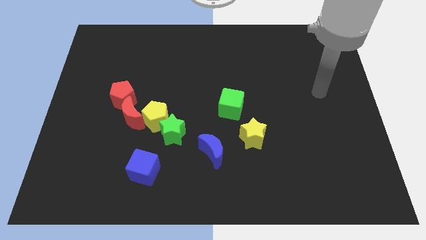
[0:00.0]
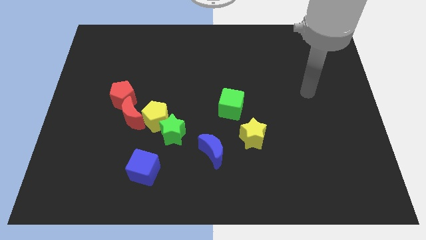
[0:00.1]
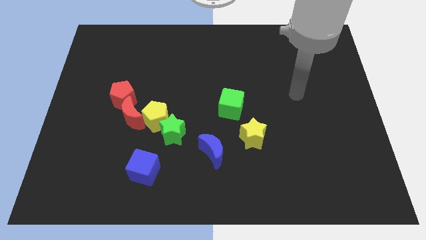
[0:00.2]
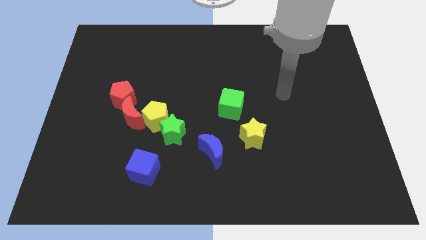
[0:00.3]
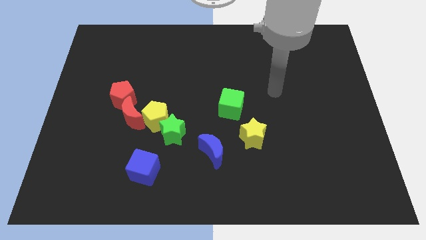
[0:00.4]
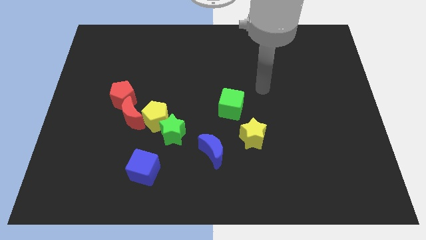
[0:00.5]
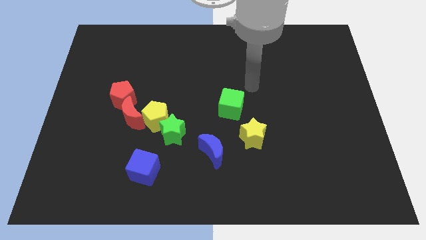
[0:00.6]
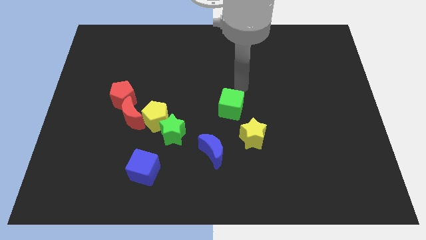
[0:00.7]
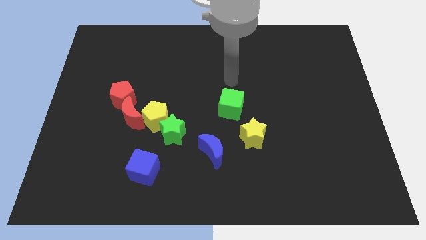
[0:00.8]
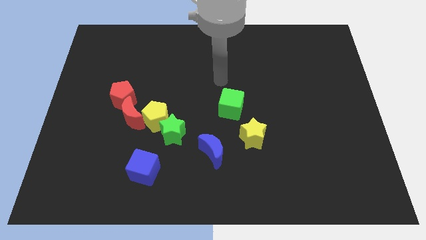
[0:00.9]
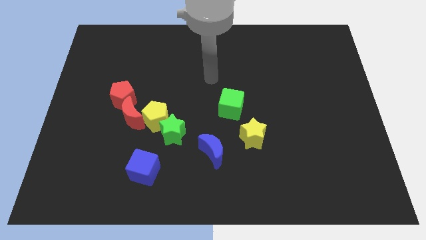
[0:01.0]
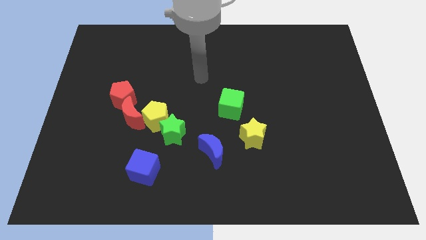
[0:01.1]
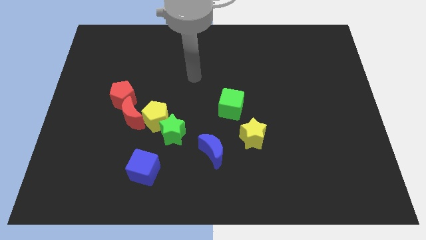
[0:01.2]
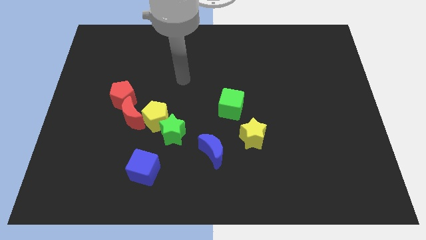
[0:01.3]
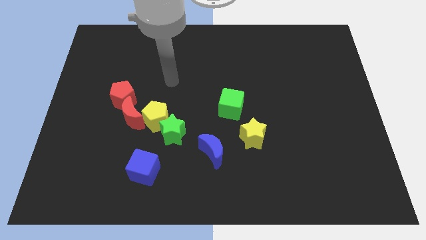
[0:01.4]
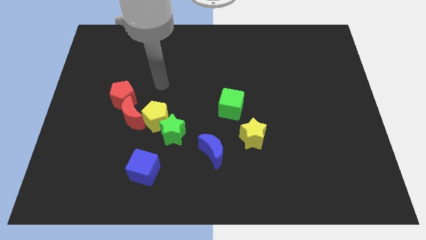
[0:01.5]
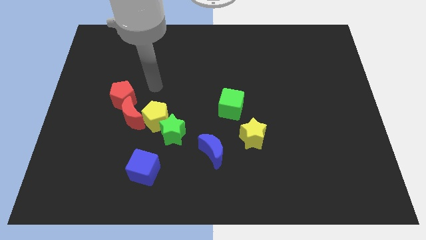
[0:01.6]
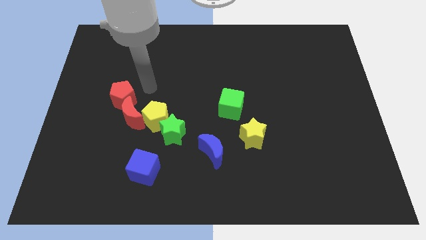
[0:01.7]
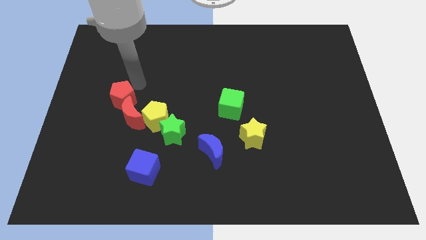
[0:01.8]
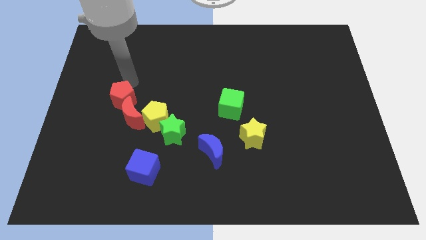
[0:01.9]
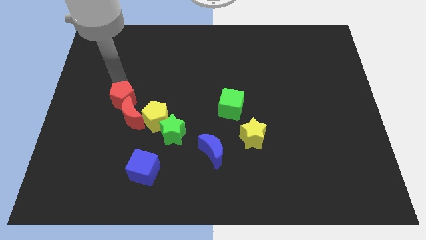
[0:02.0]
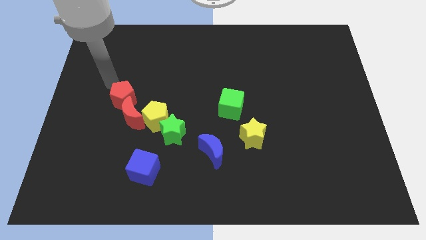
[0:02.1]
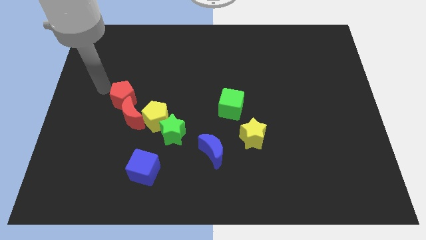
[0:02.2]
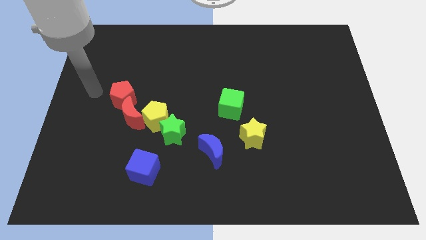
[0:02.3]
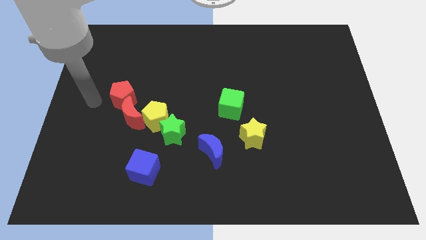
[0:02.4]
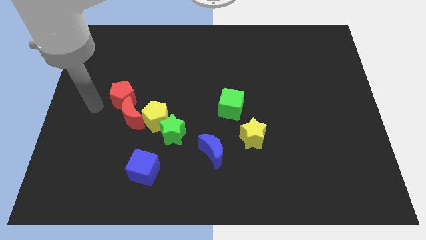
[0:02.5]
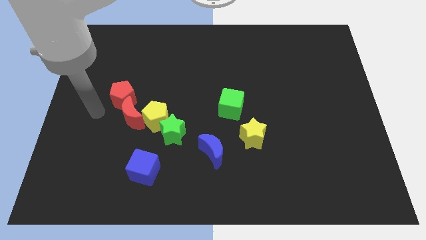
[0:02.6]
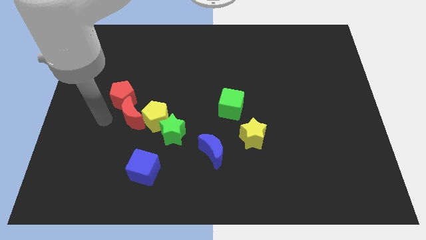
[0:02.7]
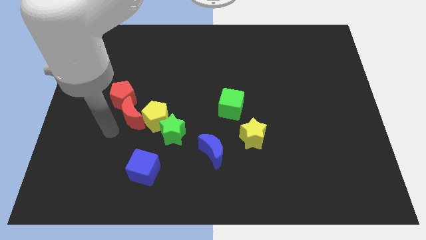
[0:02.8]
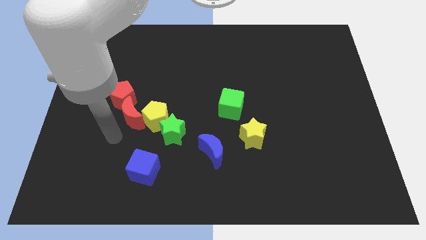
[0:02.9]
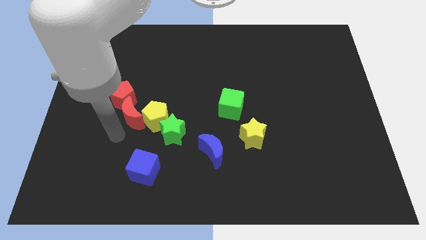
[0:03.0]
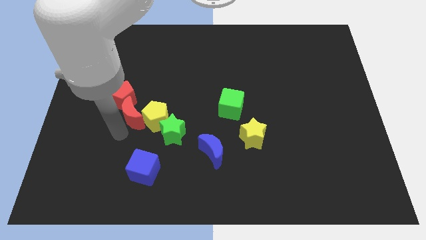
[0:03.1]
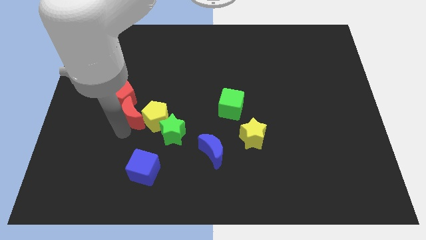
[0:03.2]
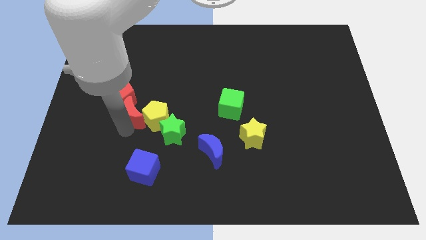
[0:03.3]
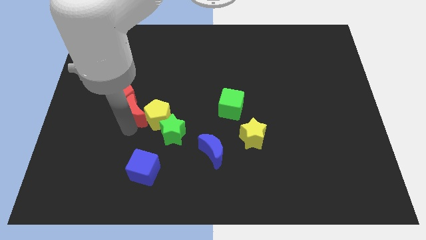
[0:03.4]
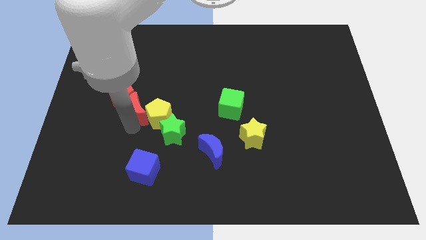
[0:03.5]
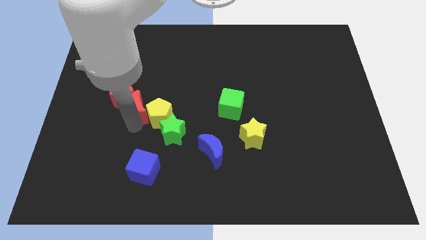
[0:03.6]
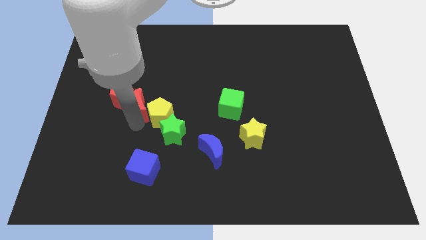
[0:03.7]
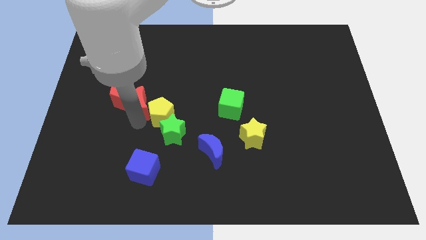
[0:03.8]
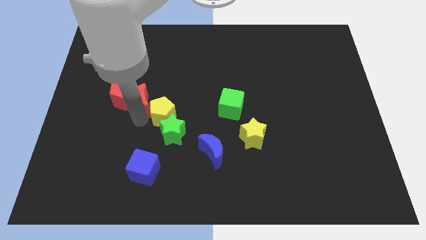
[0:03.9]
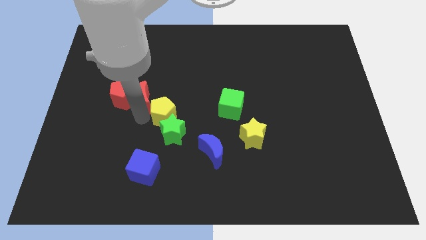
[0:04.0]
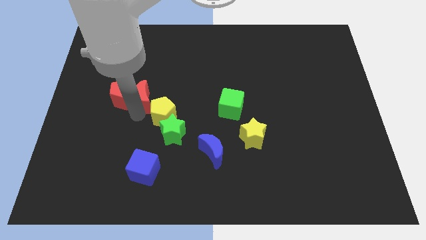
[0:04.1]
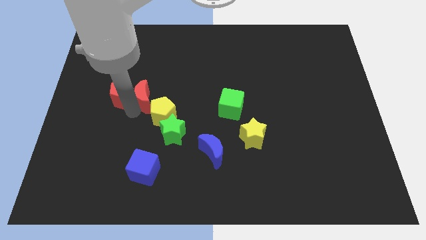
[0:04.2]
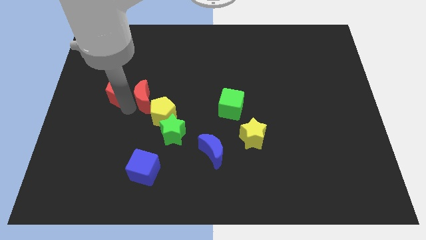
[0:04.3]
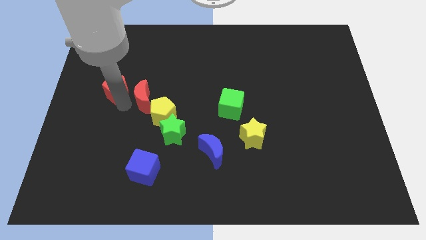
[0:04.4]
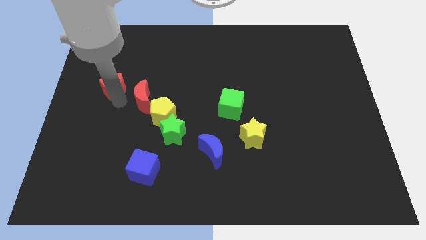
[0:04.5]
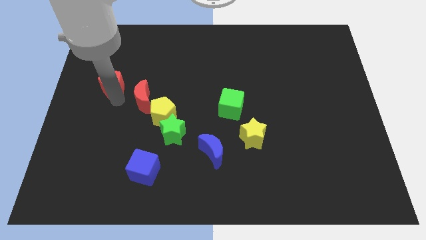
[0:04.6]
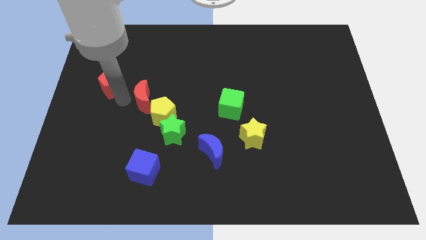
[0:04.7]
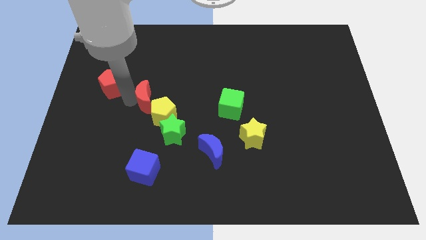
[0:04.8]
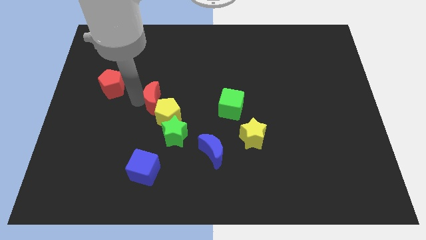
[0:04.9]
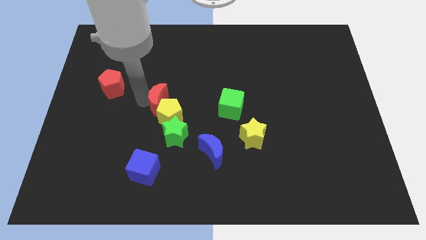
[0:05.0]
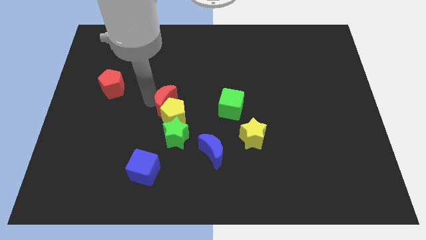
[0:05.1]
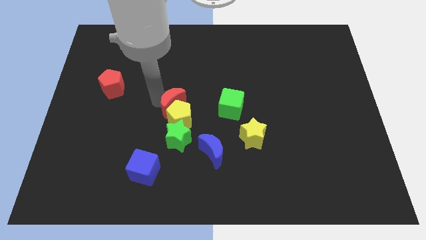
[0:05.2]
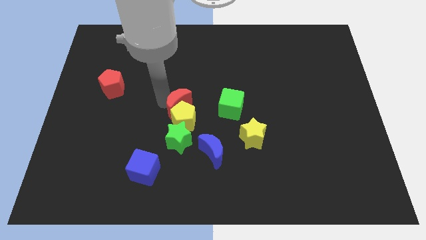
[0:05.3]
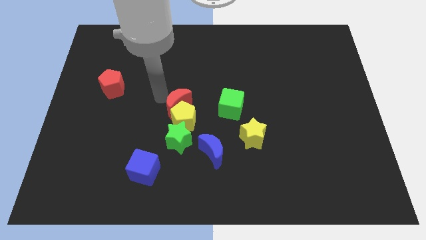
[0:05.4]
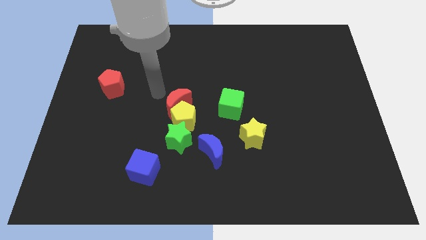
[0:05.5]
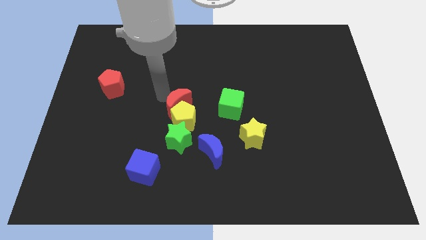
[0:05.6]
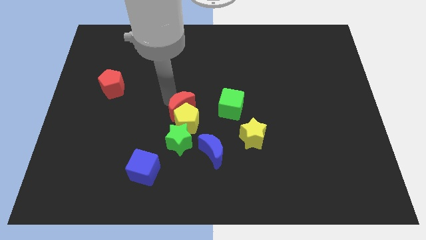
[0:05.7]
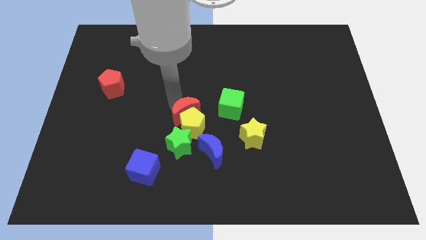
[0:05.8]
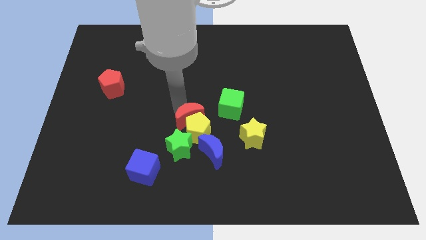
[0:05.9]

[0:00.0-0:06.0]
put the red moon to the top right of the green star

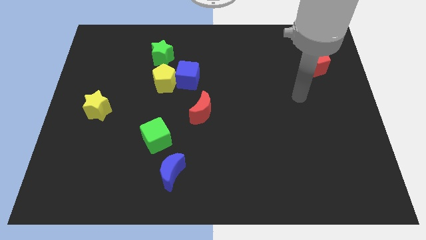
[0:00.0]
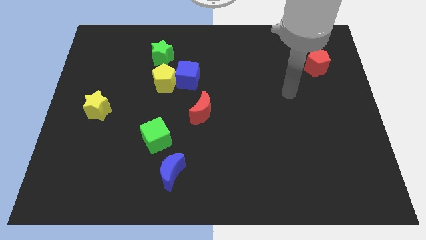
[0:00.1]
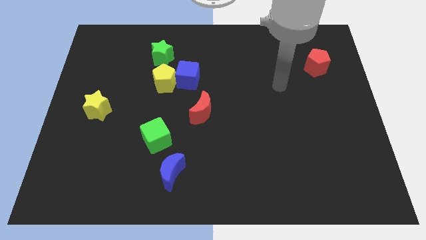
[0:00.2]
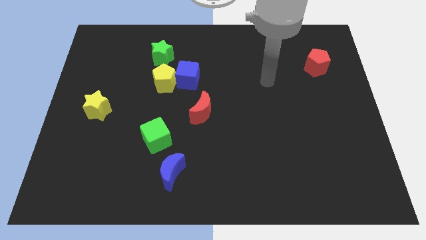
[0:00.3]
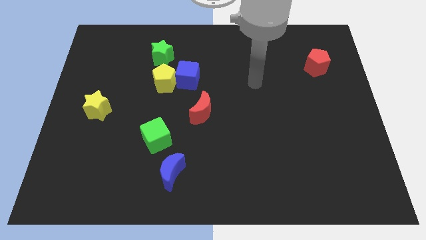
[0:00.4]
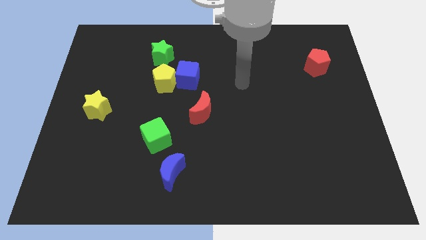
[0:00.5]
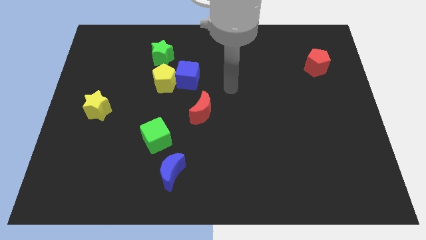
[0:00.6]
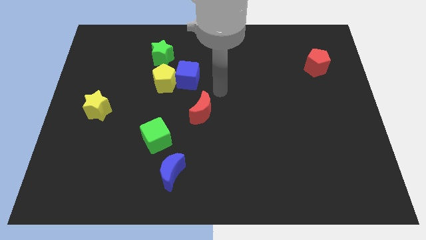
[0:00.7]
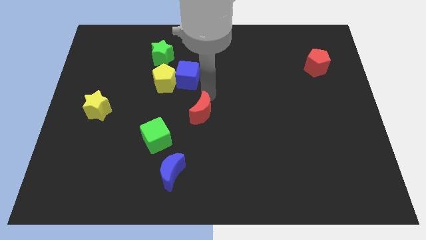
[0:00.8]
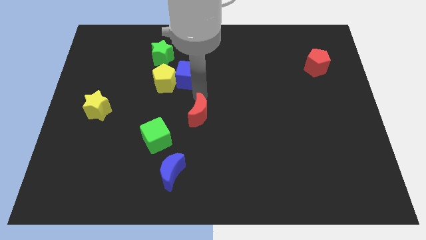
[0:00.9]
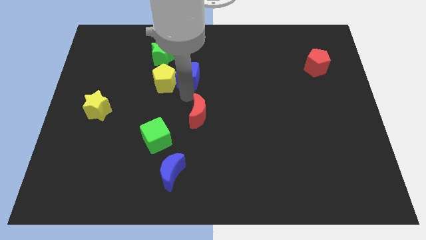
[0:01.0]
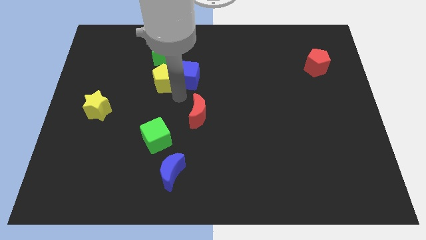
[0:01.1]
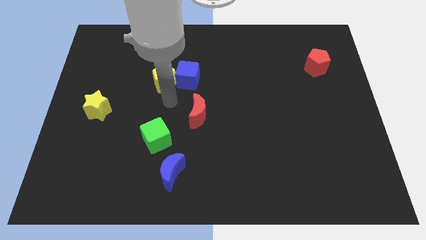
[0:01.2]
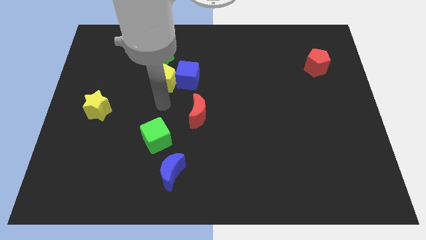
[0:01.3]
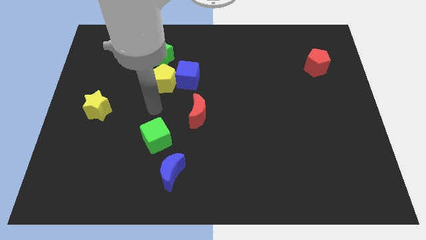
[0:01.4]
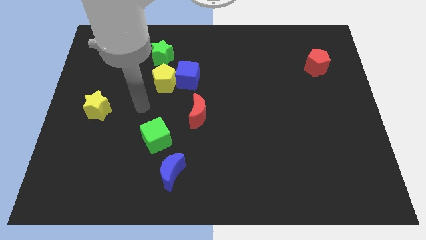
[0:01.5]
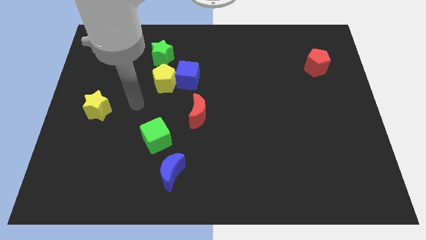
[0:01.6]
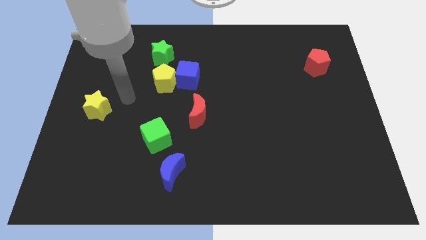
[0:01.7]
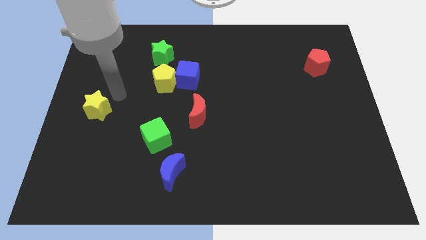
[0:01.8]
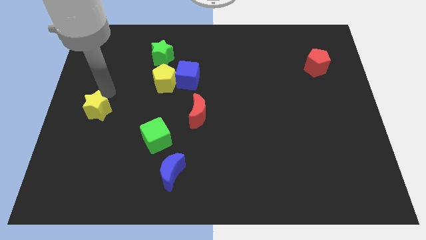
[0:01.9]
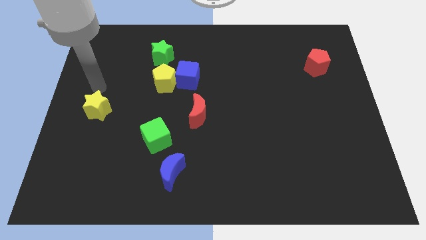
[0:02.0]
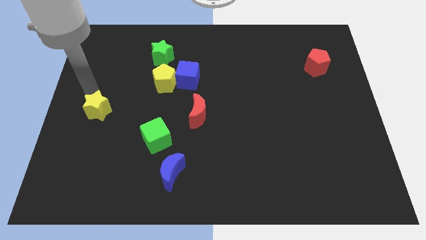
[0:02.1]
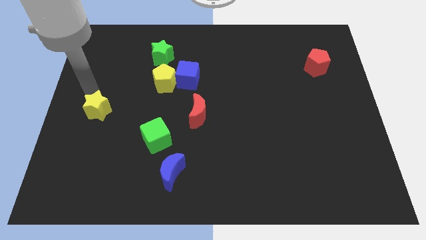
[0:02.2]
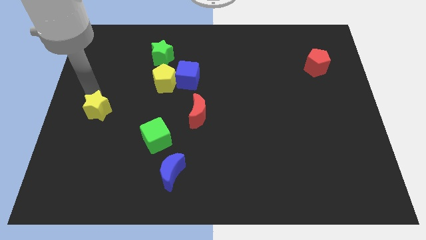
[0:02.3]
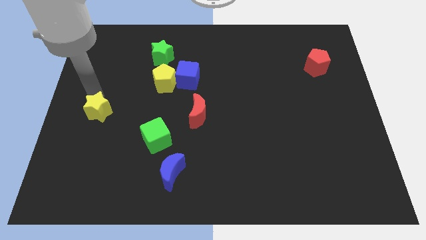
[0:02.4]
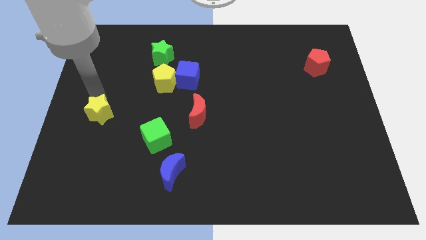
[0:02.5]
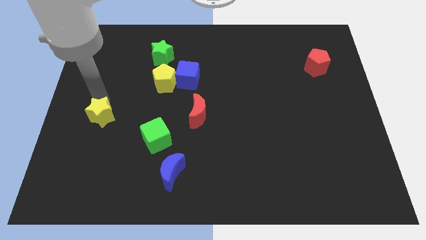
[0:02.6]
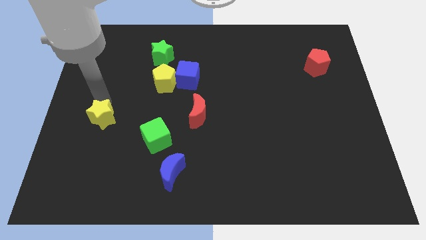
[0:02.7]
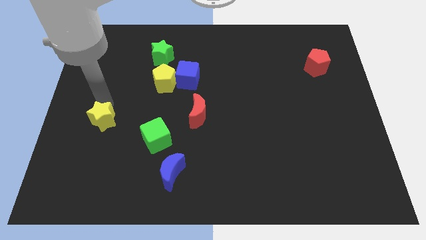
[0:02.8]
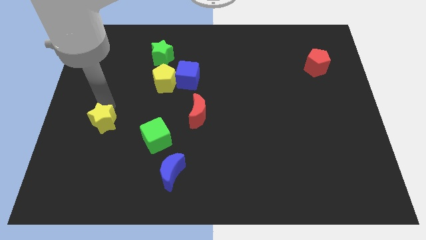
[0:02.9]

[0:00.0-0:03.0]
slide the yellow star left of the green cube
